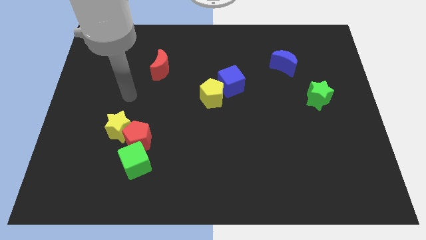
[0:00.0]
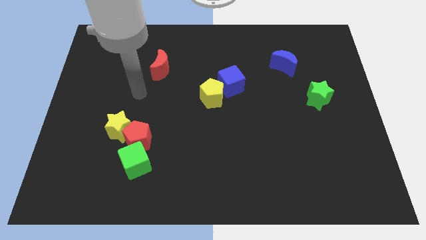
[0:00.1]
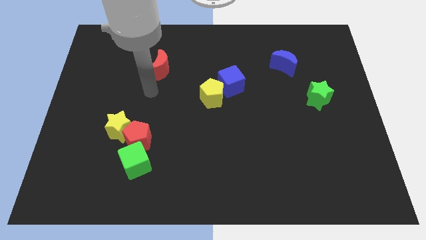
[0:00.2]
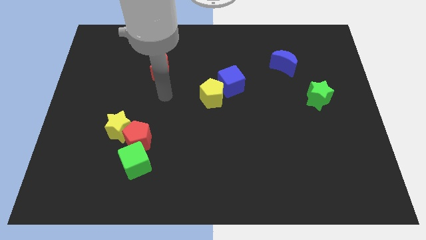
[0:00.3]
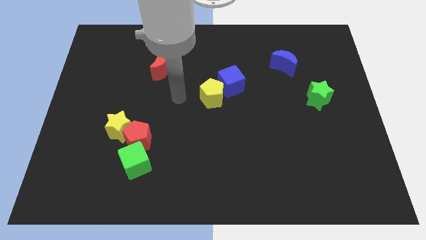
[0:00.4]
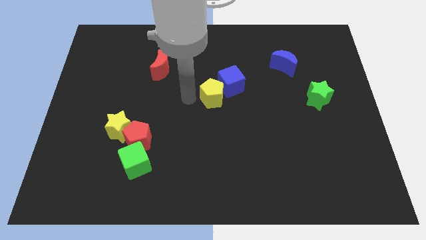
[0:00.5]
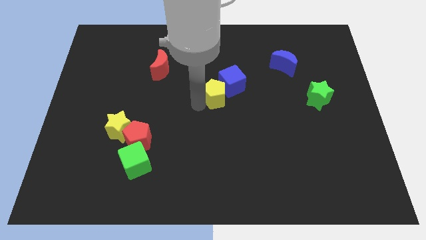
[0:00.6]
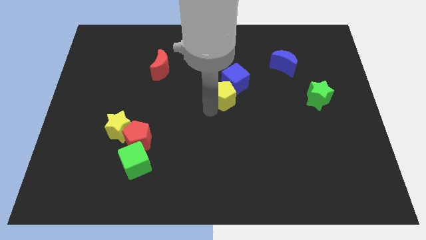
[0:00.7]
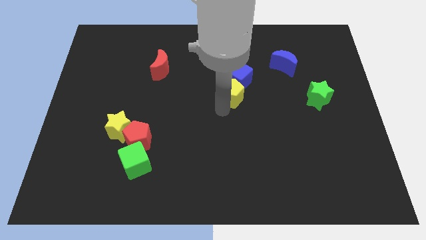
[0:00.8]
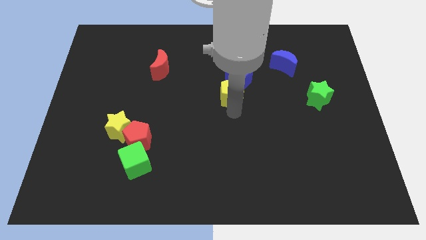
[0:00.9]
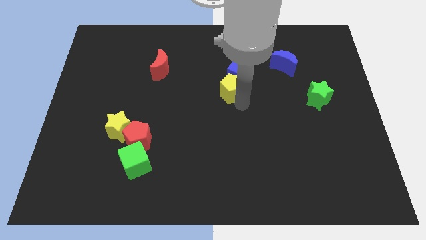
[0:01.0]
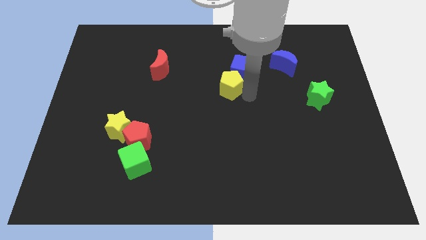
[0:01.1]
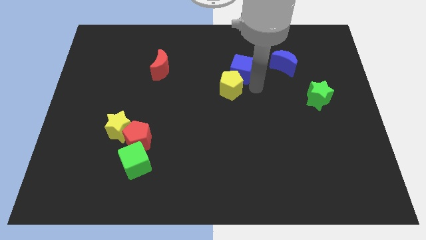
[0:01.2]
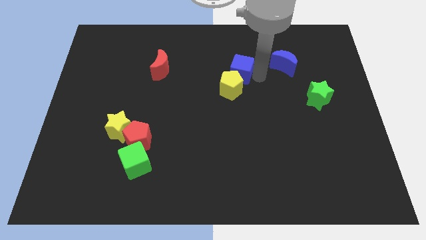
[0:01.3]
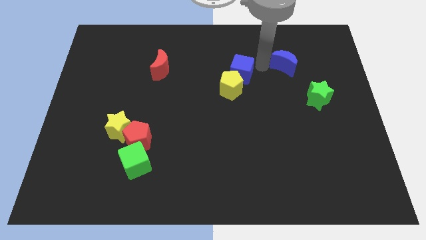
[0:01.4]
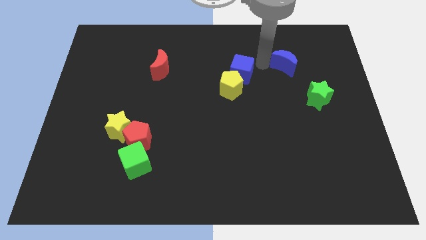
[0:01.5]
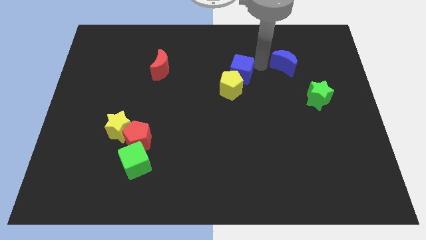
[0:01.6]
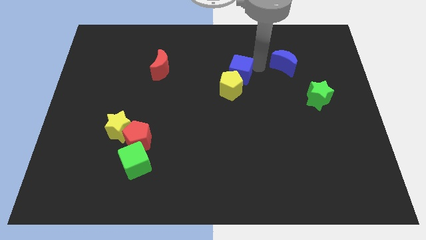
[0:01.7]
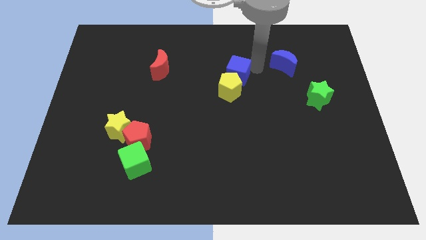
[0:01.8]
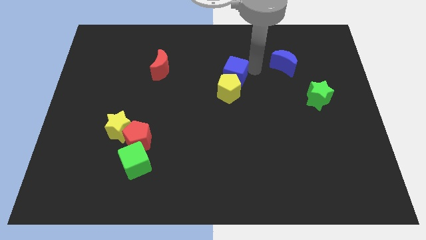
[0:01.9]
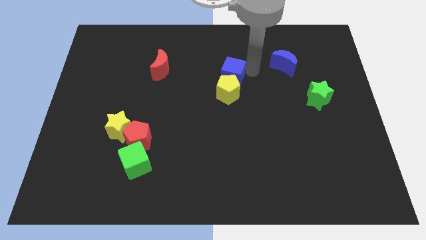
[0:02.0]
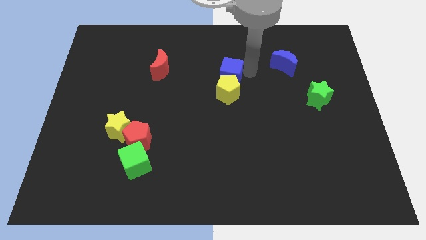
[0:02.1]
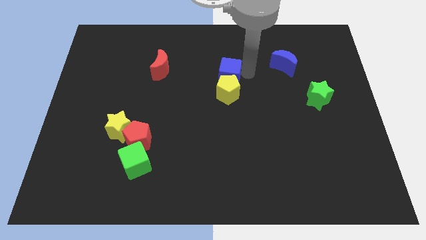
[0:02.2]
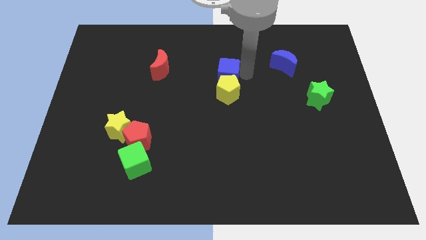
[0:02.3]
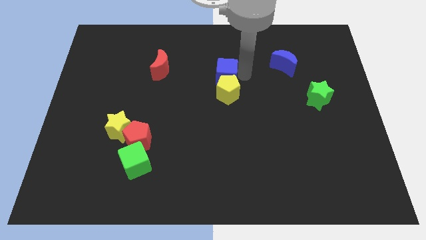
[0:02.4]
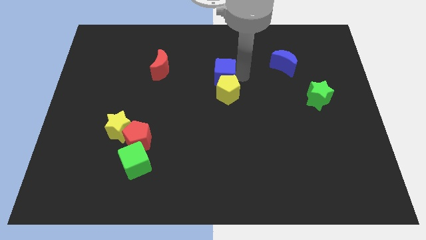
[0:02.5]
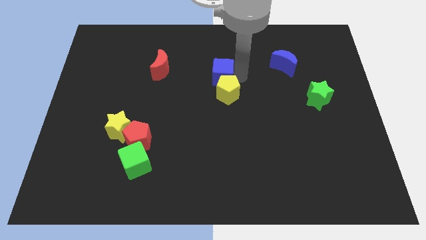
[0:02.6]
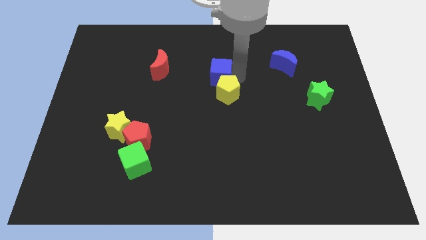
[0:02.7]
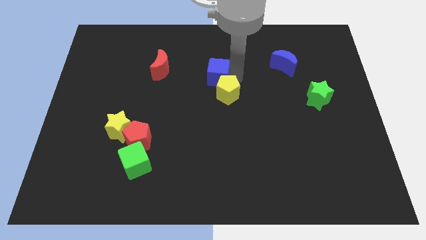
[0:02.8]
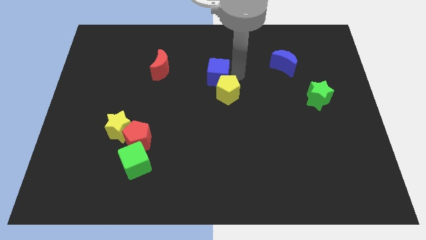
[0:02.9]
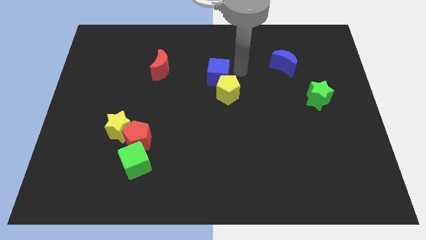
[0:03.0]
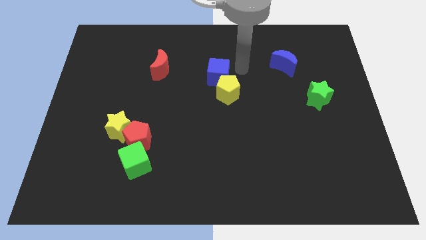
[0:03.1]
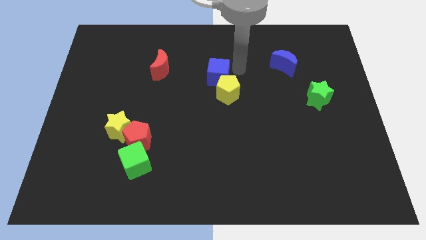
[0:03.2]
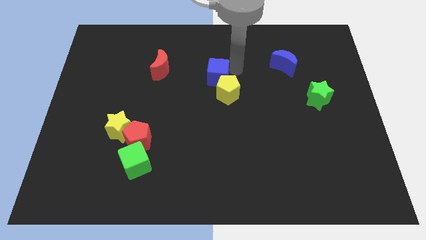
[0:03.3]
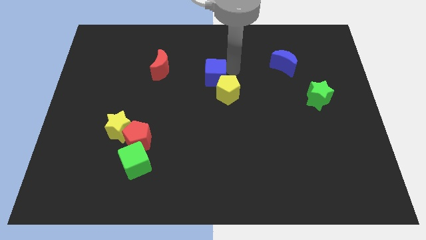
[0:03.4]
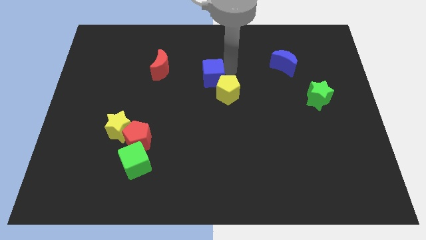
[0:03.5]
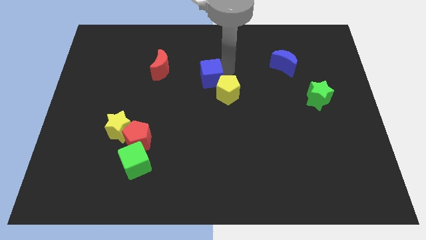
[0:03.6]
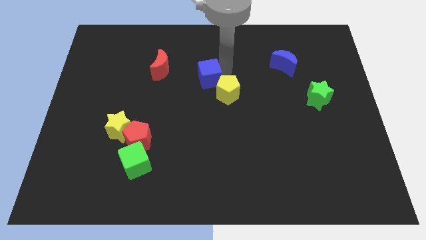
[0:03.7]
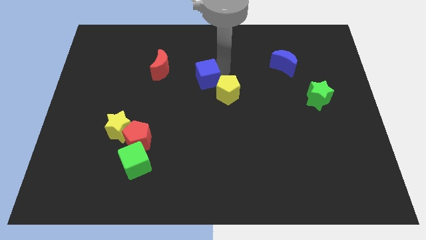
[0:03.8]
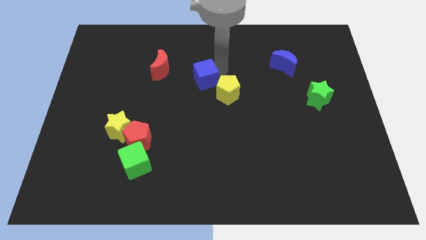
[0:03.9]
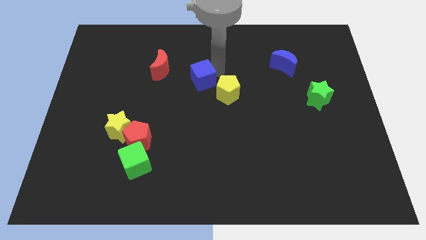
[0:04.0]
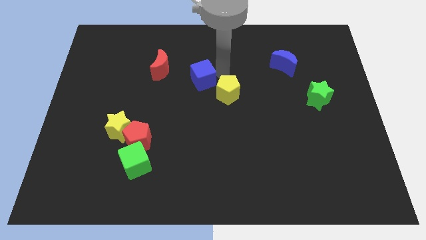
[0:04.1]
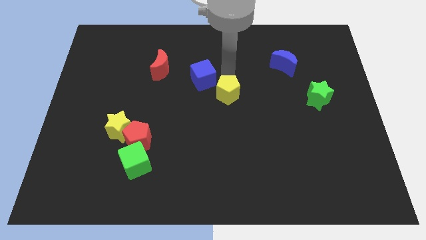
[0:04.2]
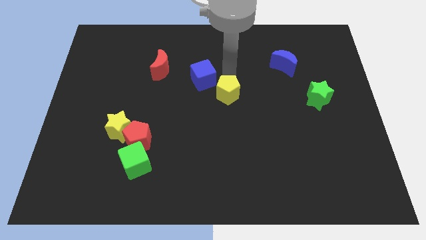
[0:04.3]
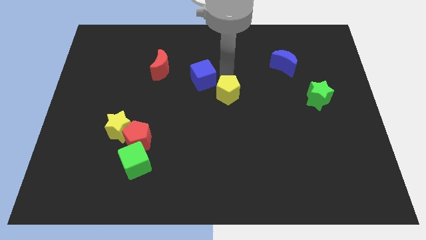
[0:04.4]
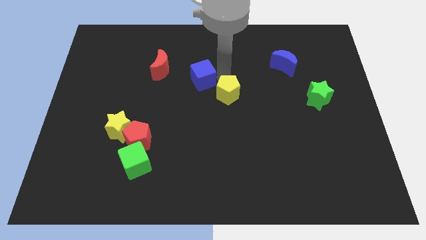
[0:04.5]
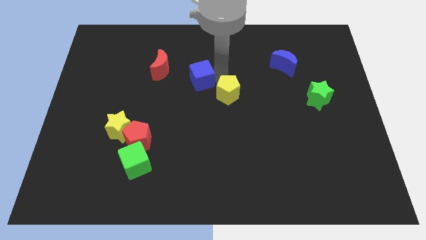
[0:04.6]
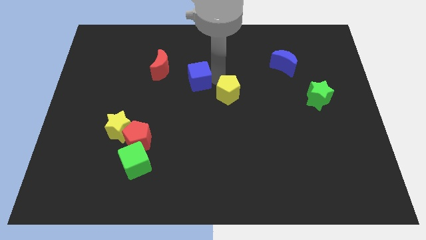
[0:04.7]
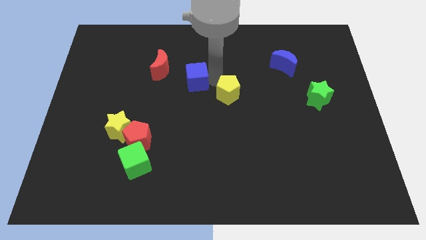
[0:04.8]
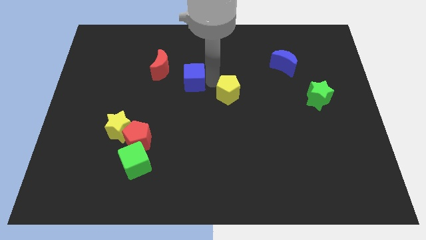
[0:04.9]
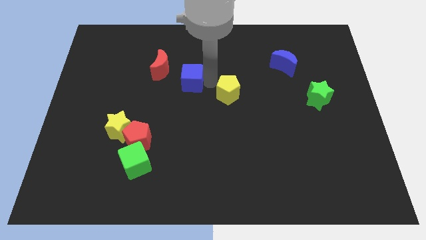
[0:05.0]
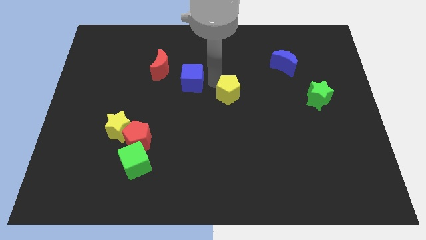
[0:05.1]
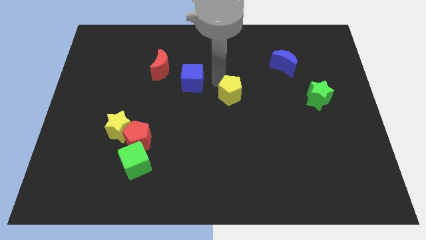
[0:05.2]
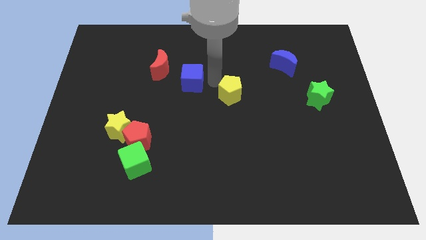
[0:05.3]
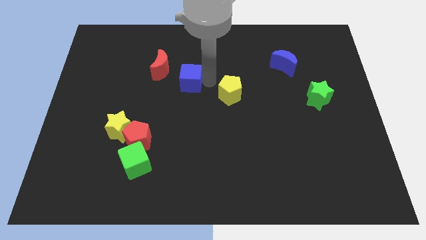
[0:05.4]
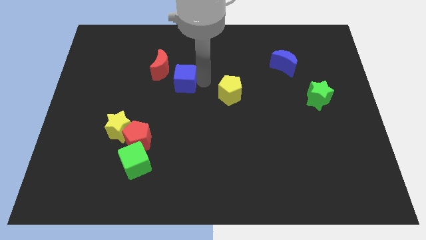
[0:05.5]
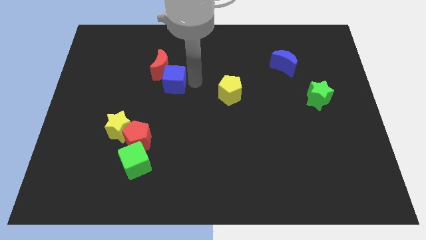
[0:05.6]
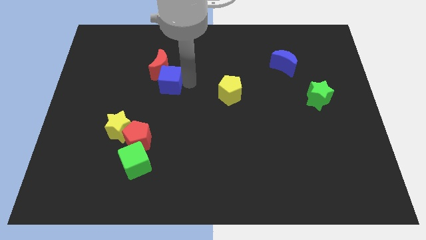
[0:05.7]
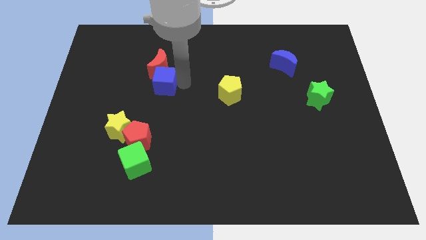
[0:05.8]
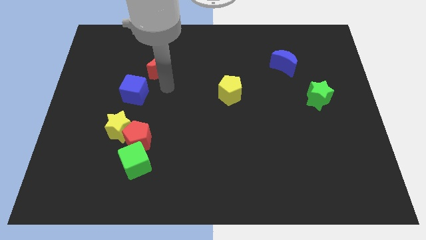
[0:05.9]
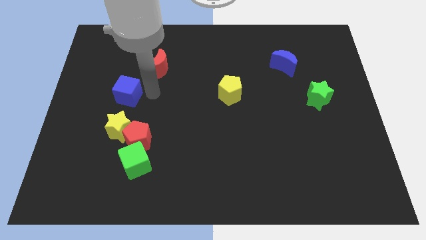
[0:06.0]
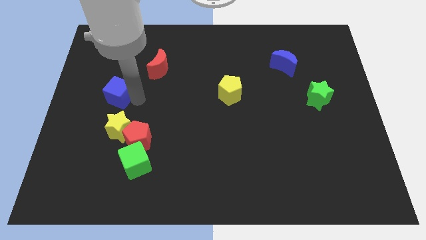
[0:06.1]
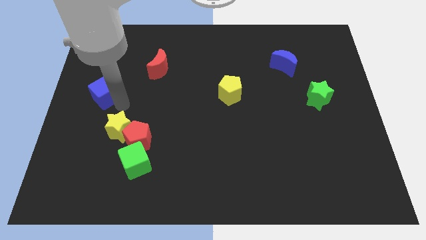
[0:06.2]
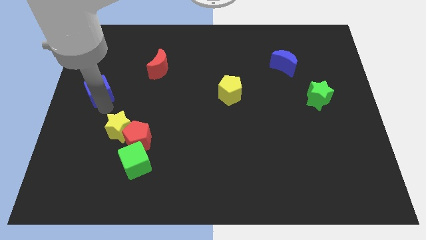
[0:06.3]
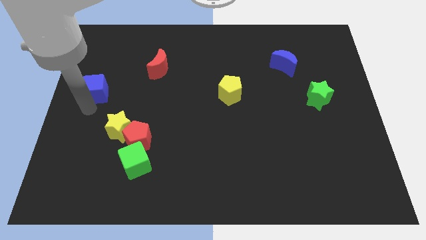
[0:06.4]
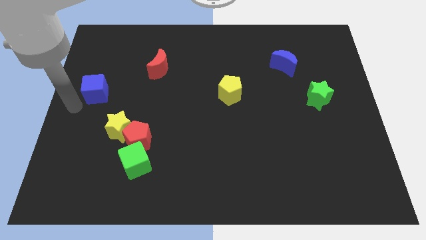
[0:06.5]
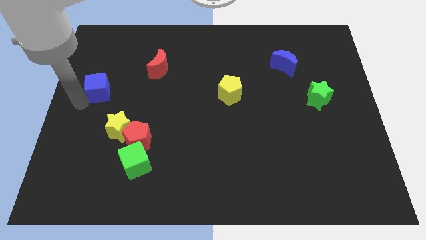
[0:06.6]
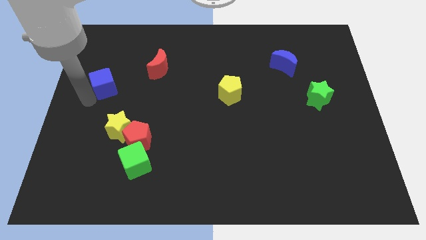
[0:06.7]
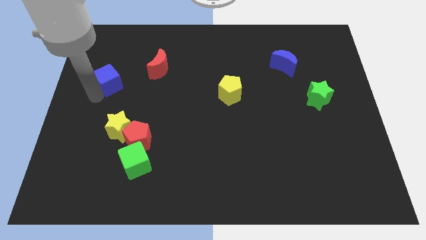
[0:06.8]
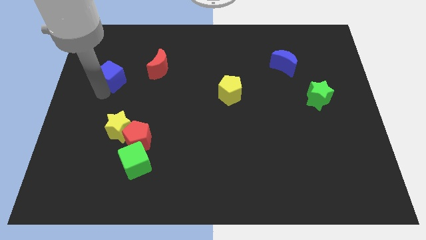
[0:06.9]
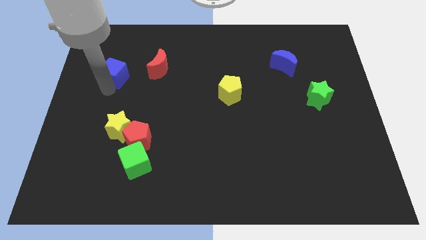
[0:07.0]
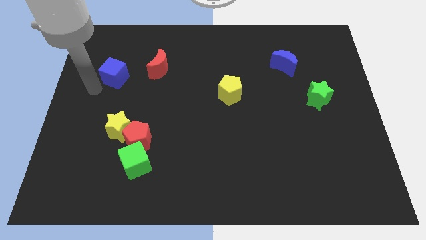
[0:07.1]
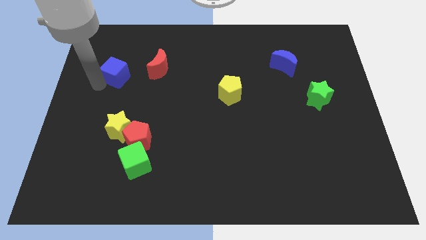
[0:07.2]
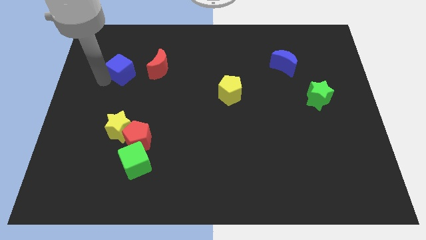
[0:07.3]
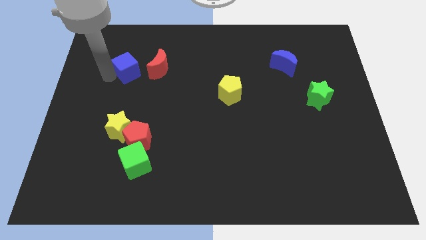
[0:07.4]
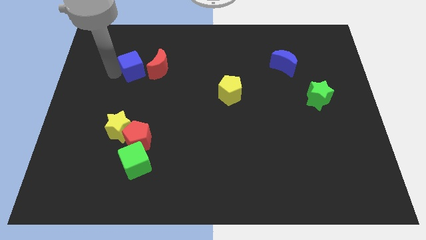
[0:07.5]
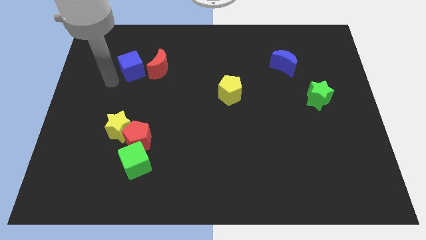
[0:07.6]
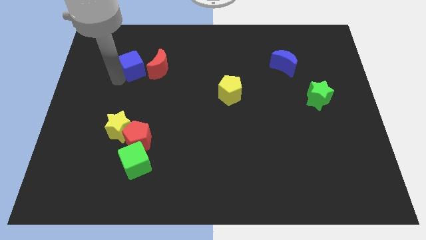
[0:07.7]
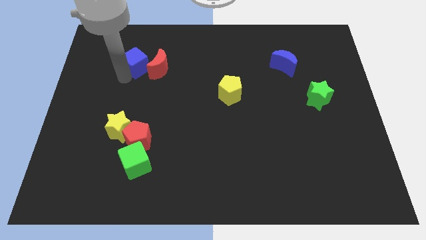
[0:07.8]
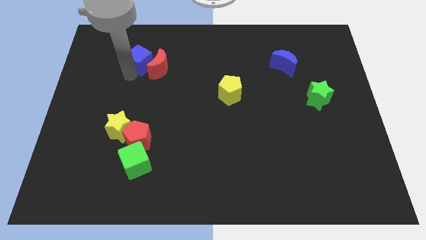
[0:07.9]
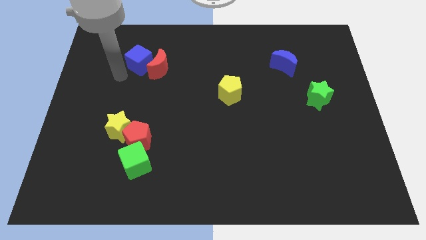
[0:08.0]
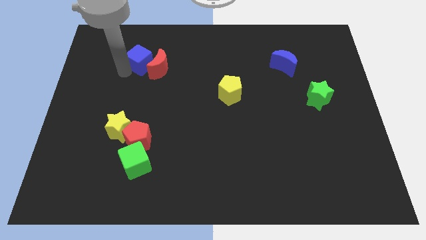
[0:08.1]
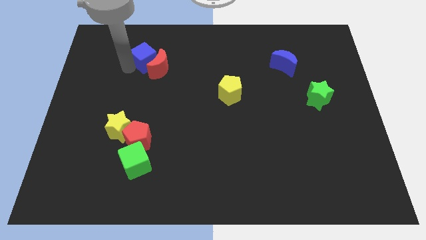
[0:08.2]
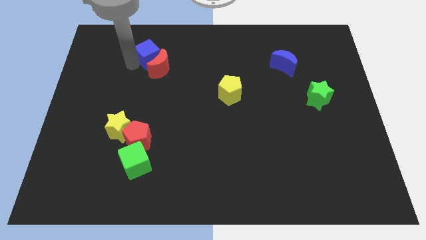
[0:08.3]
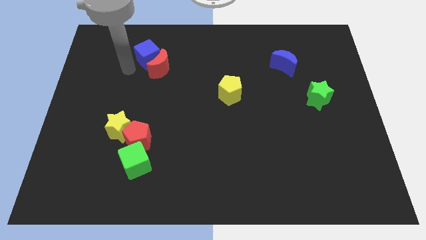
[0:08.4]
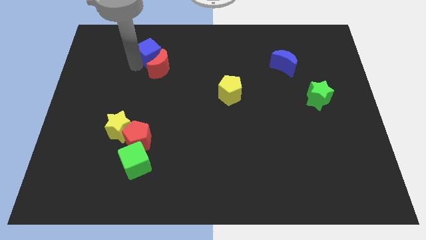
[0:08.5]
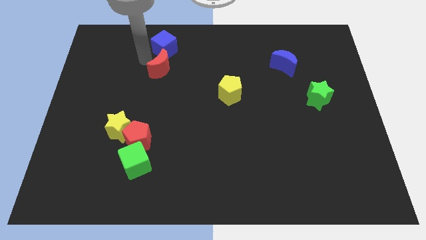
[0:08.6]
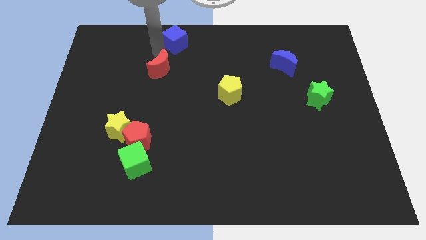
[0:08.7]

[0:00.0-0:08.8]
move the blue cube to the towards your base
